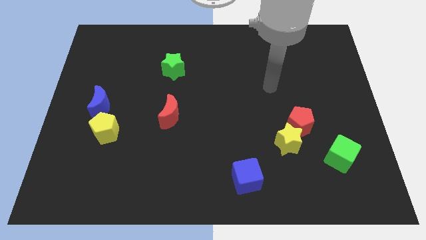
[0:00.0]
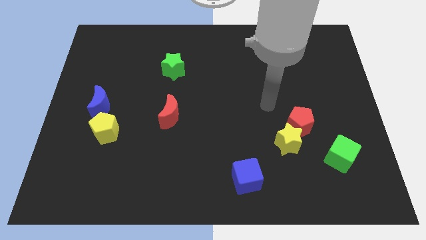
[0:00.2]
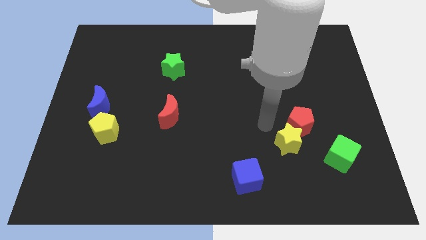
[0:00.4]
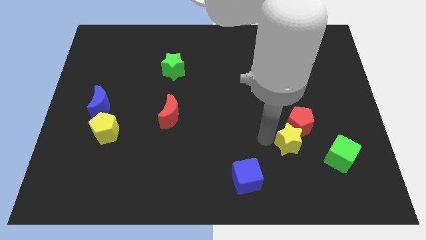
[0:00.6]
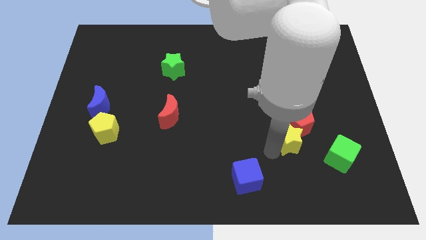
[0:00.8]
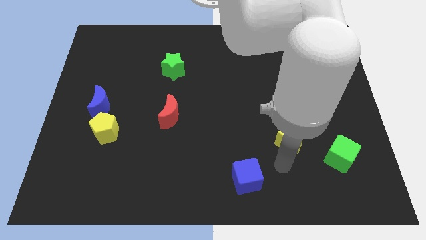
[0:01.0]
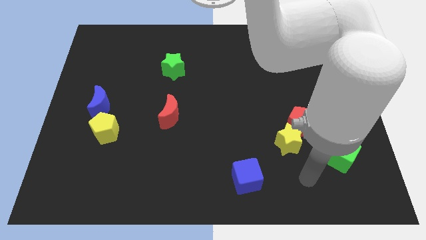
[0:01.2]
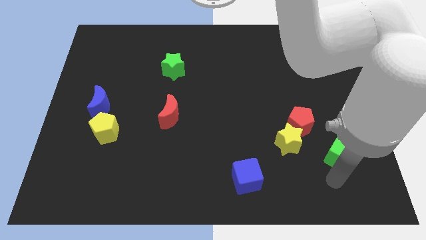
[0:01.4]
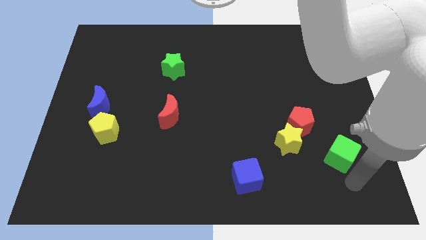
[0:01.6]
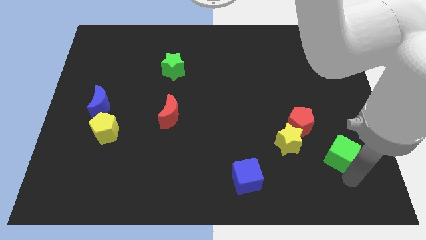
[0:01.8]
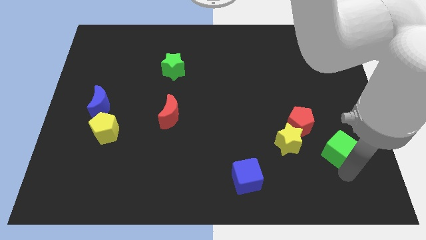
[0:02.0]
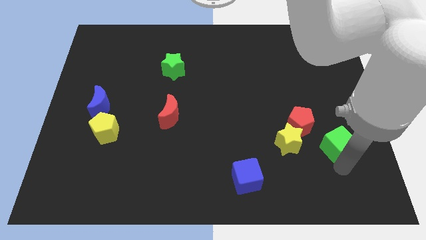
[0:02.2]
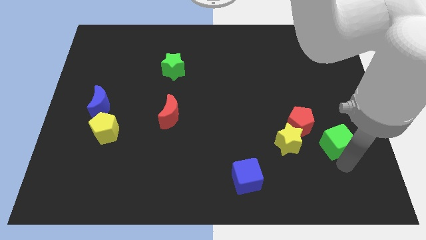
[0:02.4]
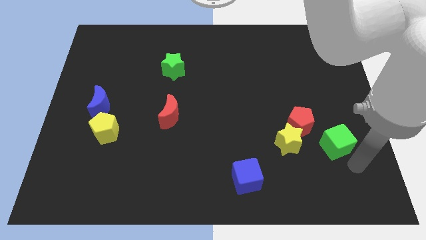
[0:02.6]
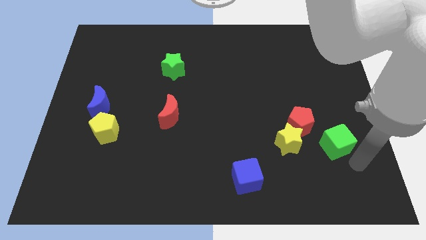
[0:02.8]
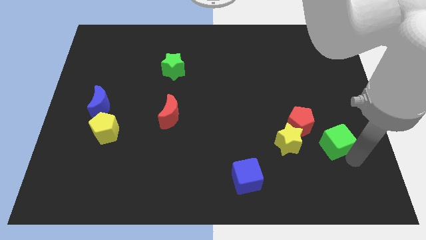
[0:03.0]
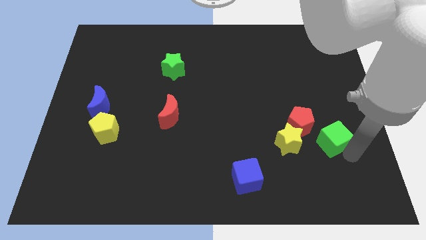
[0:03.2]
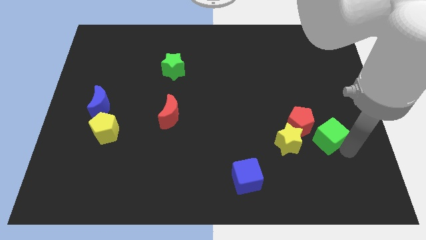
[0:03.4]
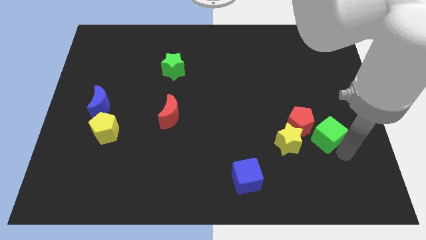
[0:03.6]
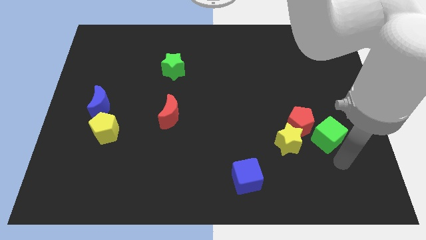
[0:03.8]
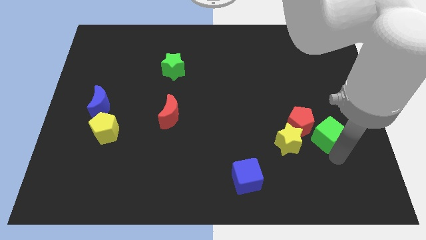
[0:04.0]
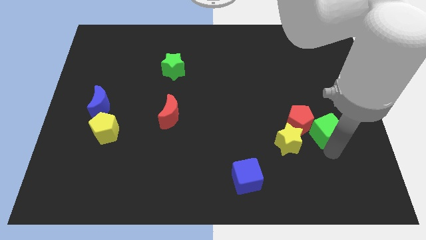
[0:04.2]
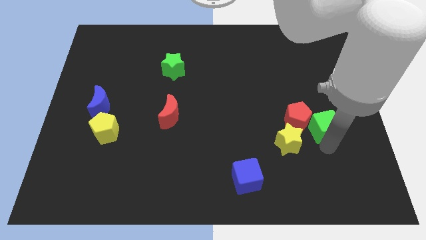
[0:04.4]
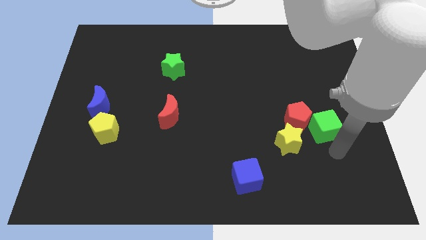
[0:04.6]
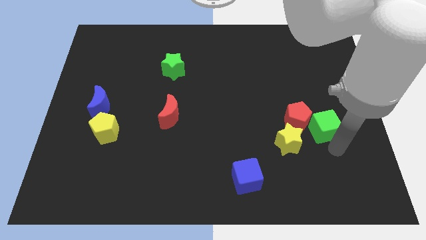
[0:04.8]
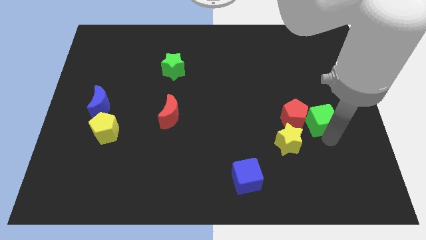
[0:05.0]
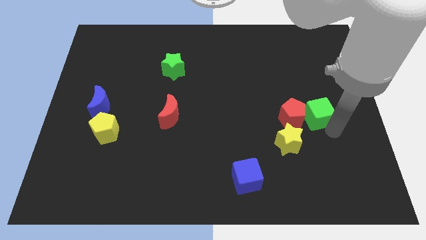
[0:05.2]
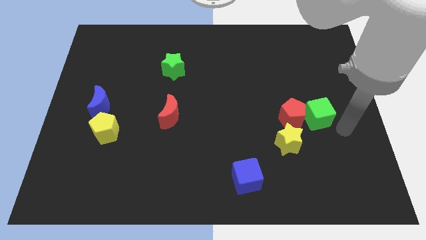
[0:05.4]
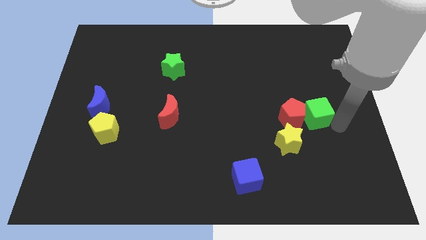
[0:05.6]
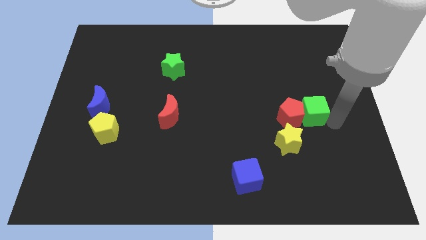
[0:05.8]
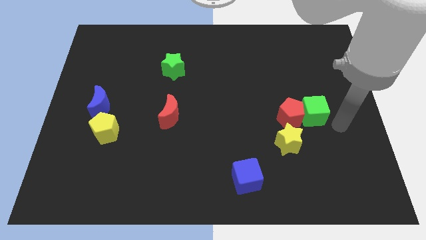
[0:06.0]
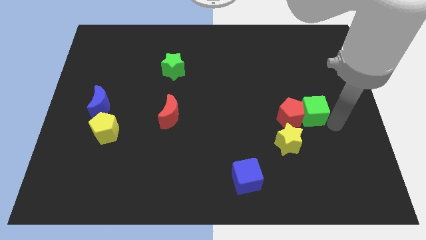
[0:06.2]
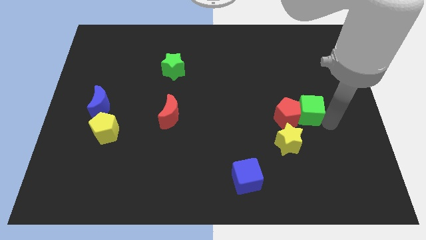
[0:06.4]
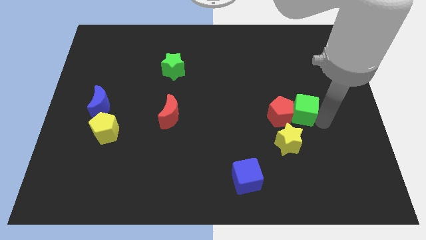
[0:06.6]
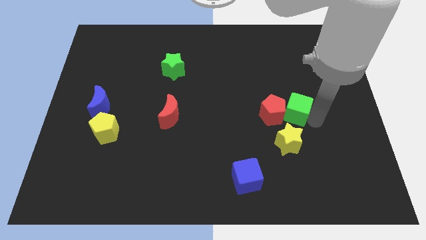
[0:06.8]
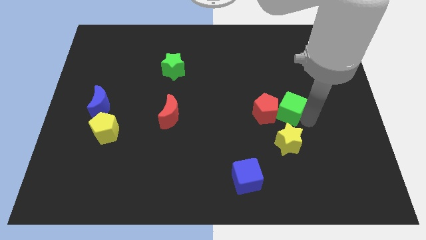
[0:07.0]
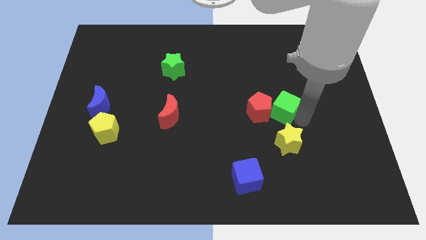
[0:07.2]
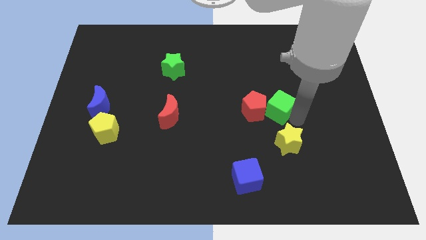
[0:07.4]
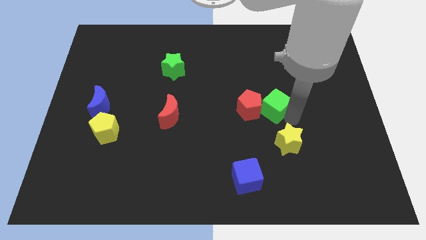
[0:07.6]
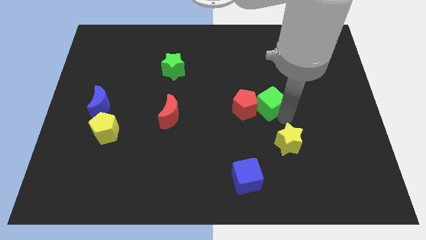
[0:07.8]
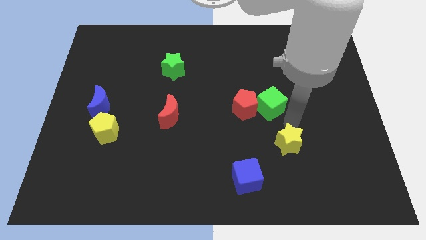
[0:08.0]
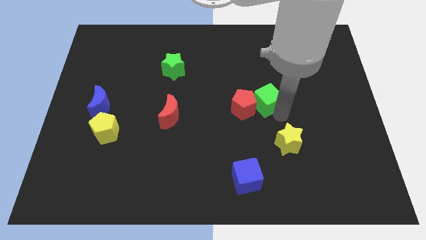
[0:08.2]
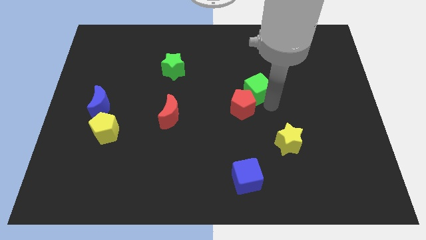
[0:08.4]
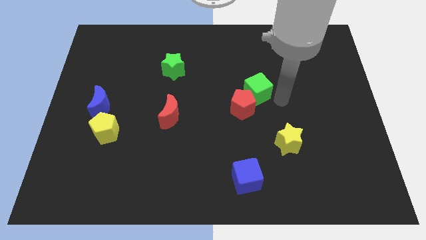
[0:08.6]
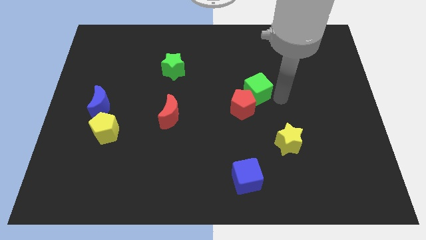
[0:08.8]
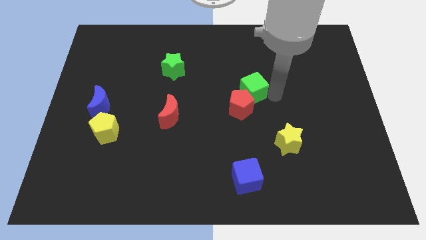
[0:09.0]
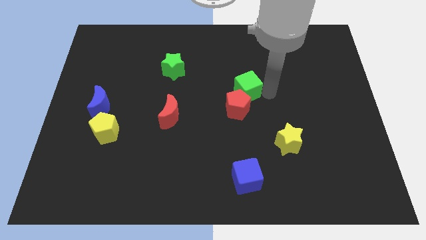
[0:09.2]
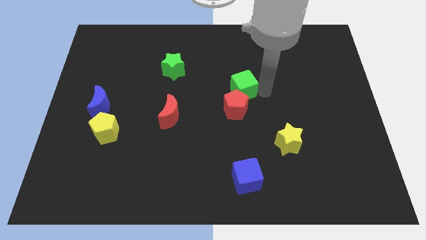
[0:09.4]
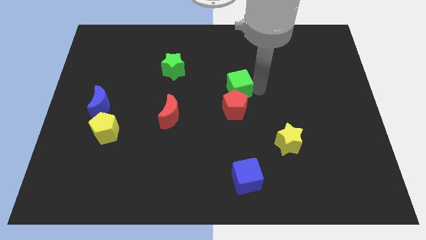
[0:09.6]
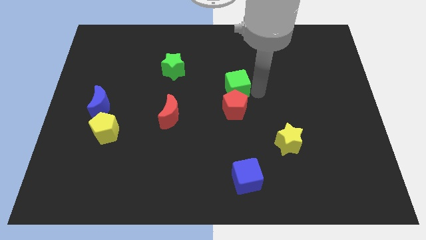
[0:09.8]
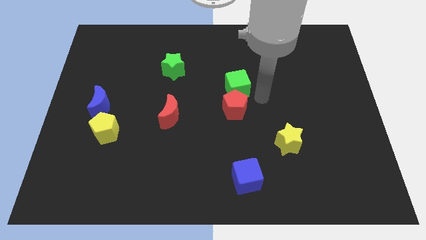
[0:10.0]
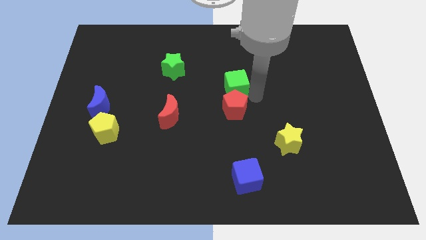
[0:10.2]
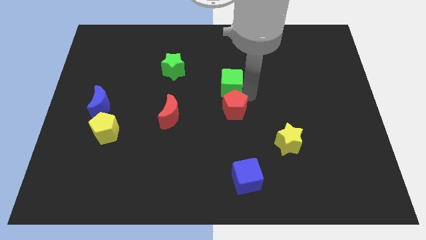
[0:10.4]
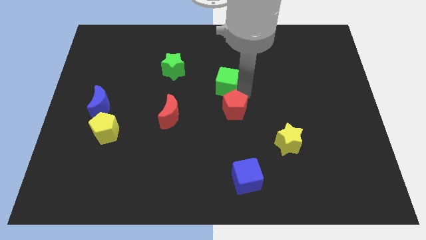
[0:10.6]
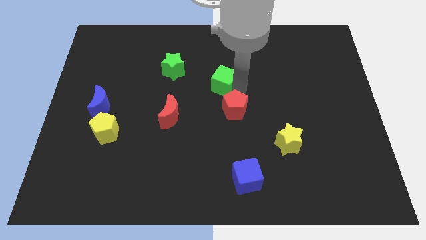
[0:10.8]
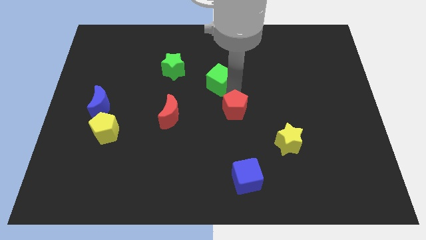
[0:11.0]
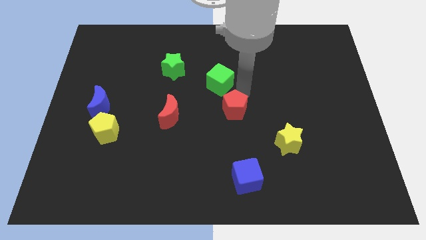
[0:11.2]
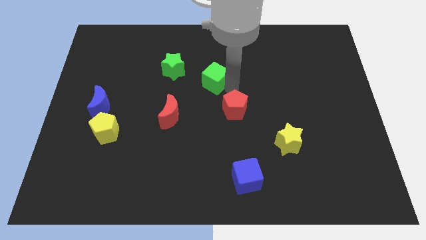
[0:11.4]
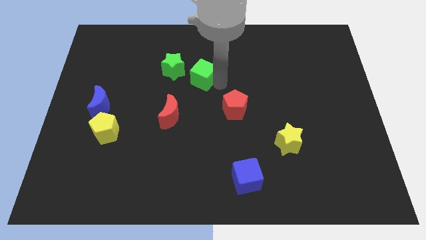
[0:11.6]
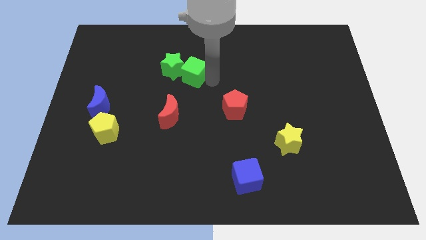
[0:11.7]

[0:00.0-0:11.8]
put the green cube next to the green star

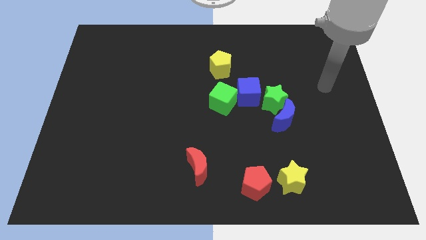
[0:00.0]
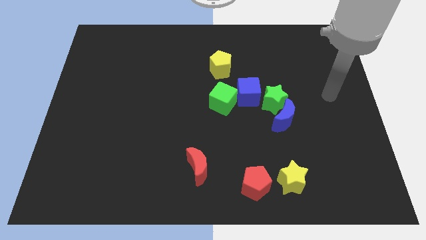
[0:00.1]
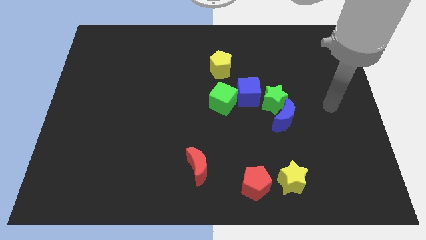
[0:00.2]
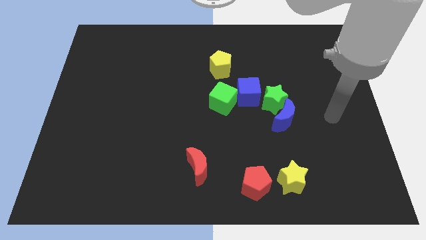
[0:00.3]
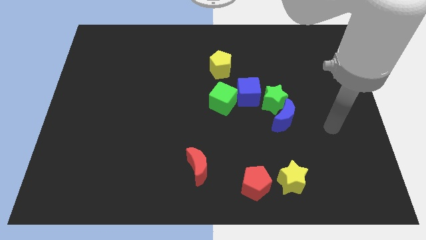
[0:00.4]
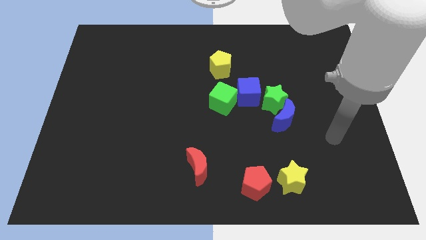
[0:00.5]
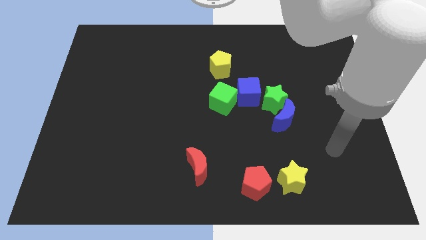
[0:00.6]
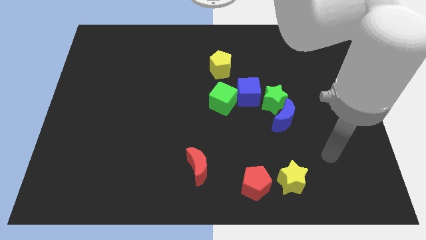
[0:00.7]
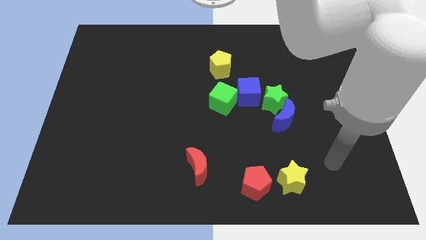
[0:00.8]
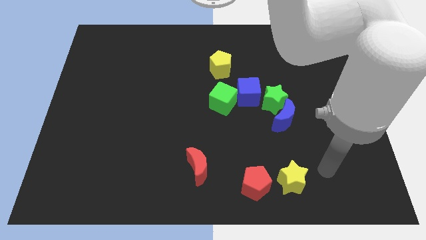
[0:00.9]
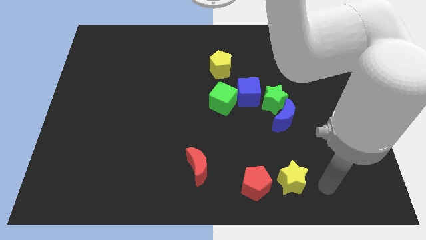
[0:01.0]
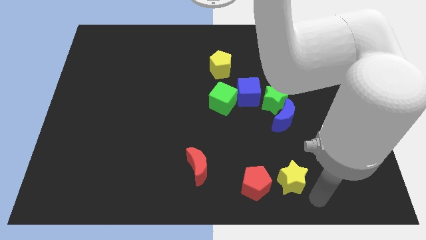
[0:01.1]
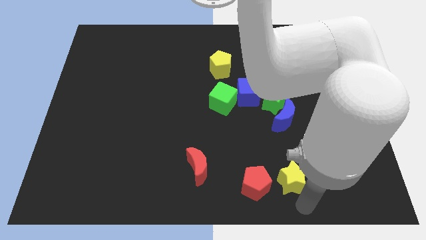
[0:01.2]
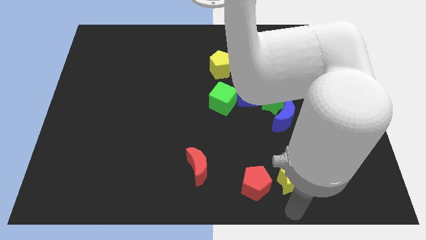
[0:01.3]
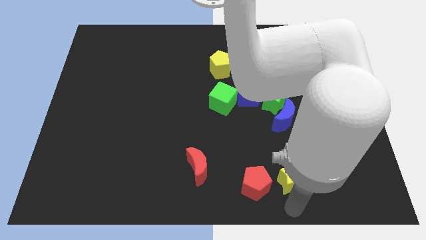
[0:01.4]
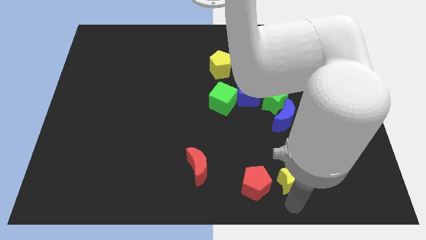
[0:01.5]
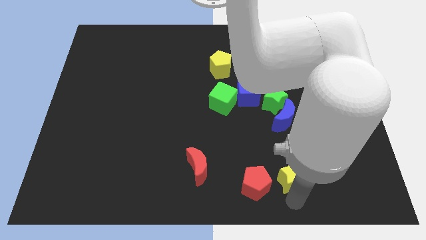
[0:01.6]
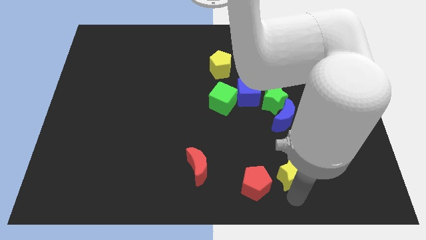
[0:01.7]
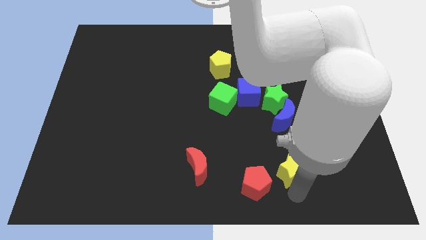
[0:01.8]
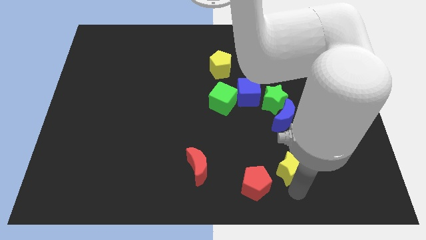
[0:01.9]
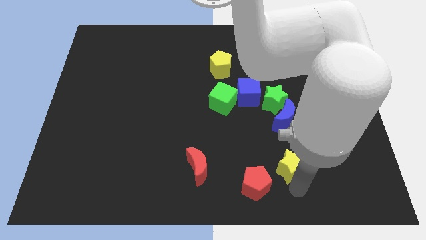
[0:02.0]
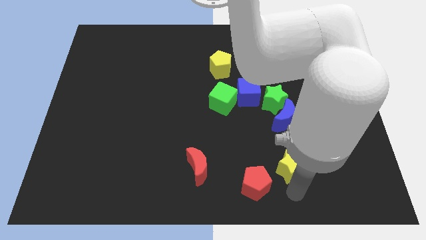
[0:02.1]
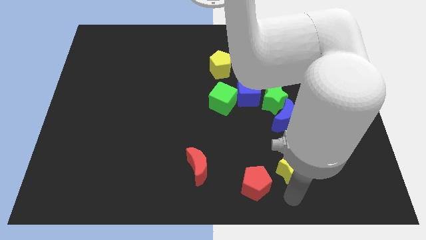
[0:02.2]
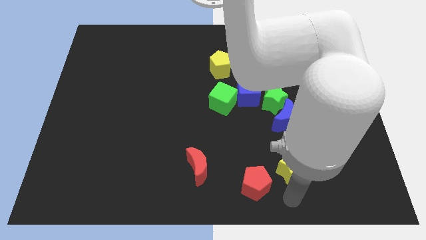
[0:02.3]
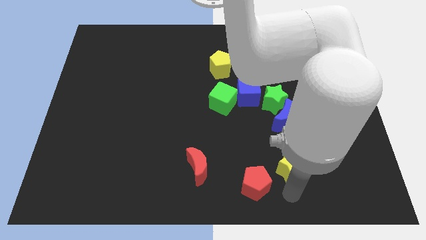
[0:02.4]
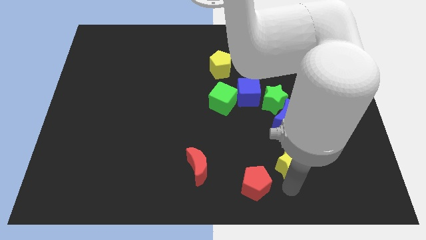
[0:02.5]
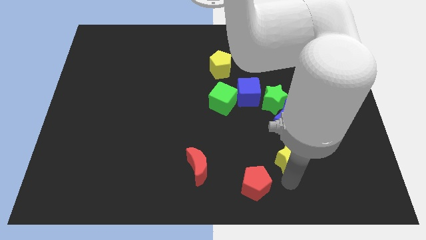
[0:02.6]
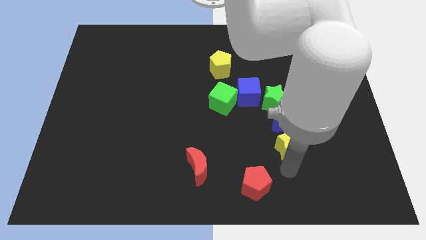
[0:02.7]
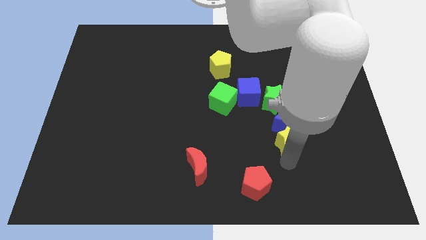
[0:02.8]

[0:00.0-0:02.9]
move the yellow star to the blue moon
